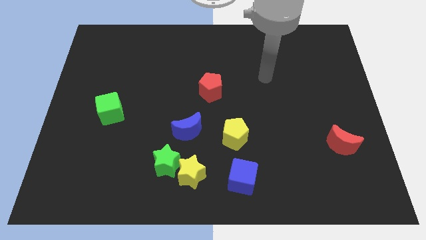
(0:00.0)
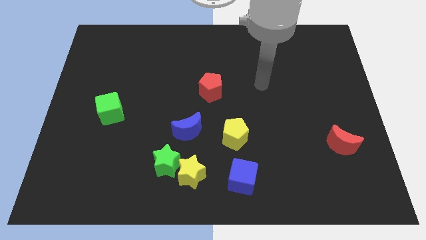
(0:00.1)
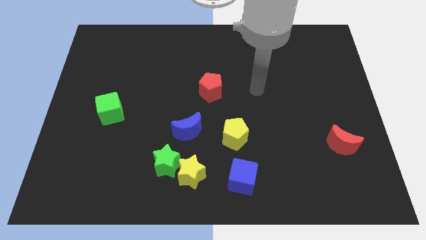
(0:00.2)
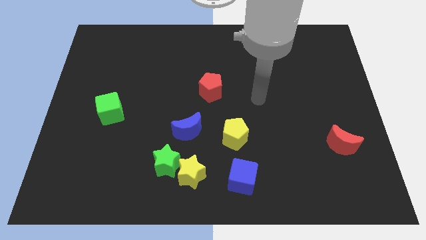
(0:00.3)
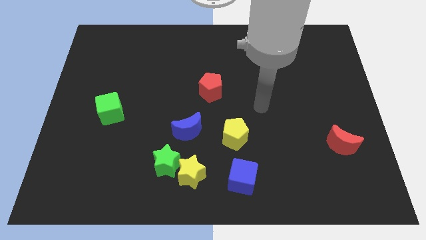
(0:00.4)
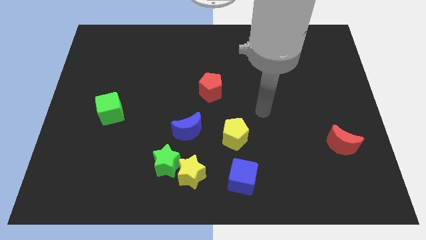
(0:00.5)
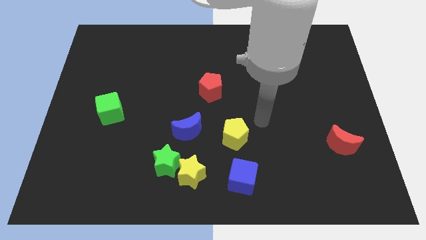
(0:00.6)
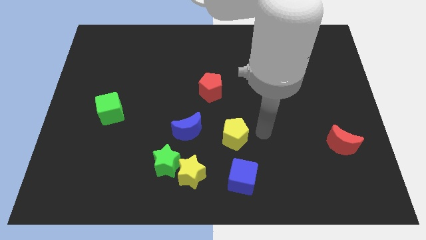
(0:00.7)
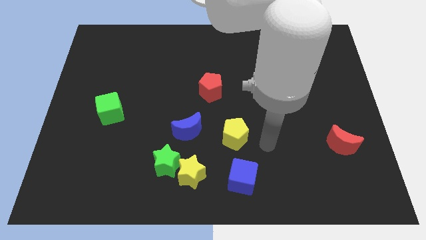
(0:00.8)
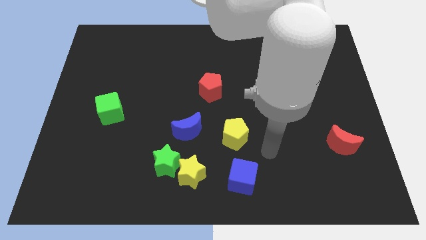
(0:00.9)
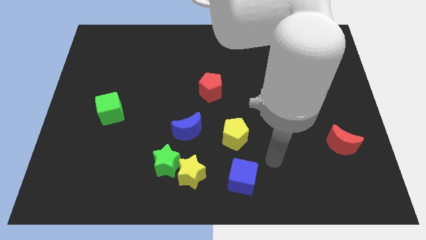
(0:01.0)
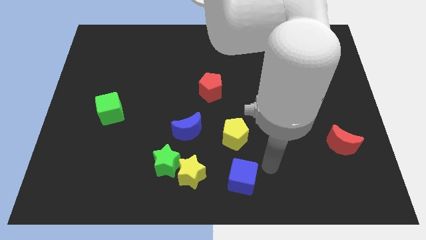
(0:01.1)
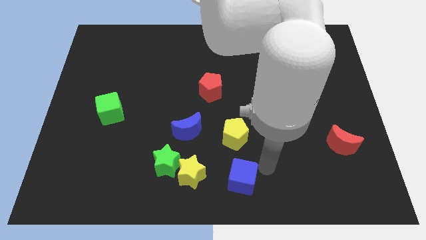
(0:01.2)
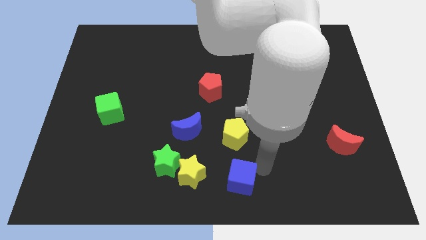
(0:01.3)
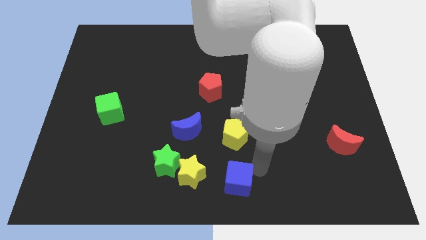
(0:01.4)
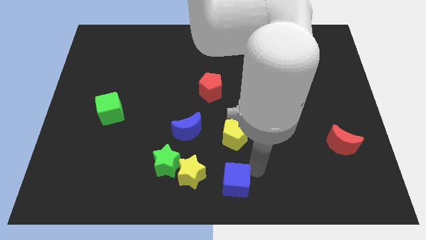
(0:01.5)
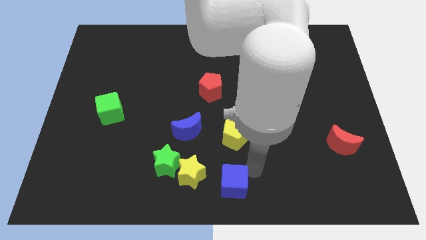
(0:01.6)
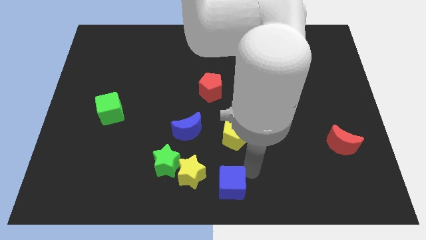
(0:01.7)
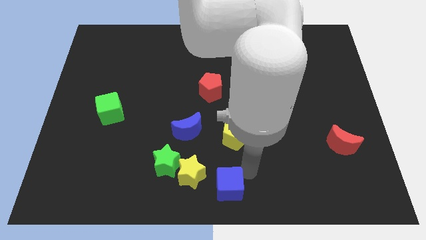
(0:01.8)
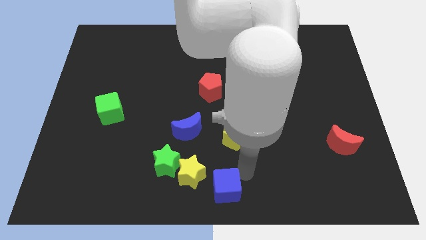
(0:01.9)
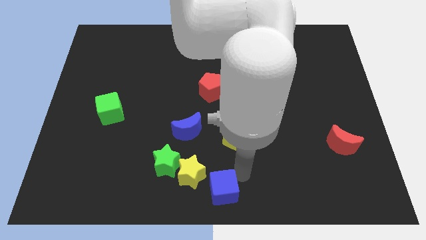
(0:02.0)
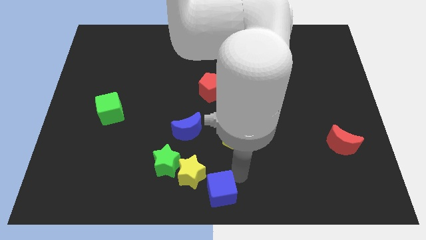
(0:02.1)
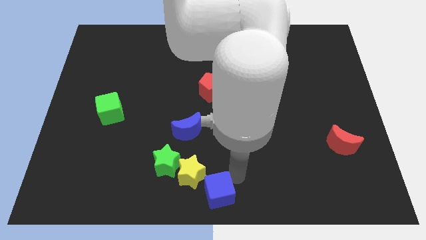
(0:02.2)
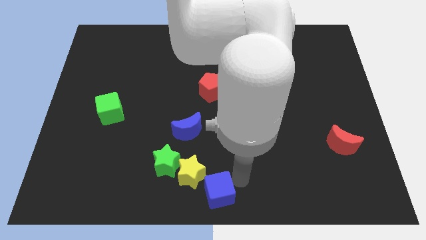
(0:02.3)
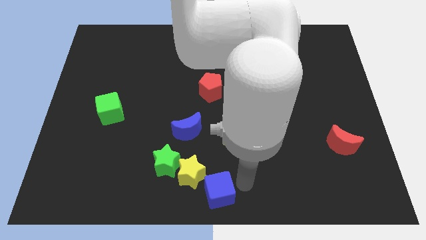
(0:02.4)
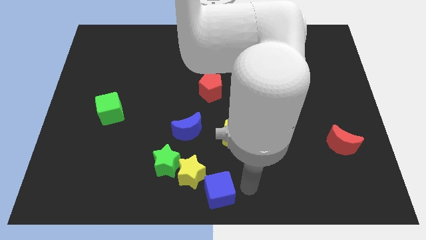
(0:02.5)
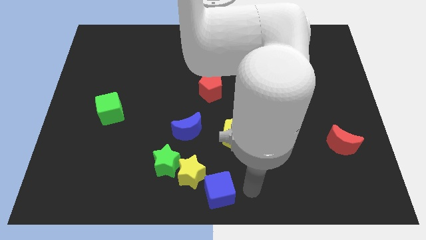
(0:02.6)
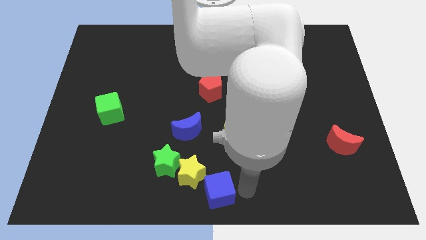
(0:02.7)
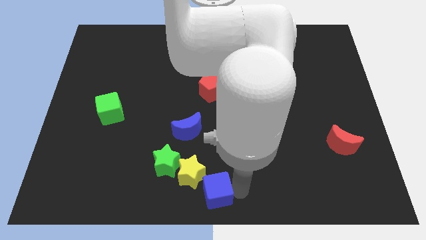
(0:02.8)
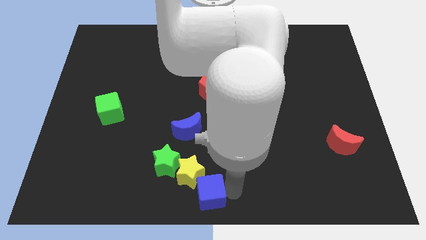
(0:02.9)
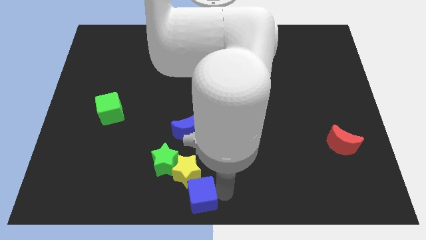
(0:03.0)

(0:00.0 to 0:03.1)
move the blue cube left somewhat

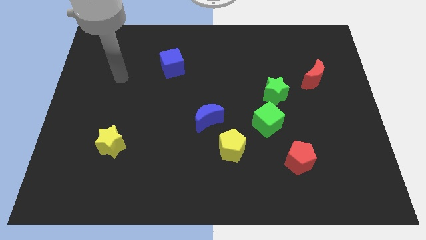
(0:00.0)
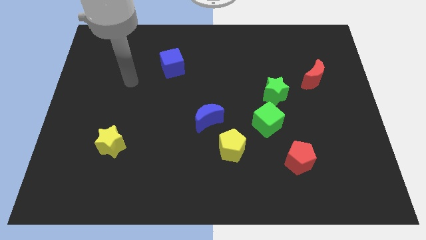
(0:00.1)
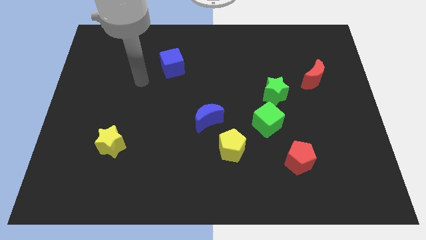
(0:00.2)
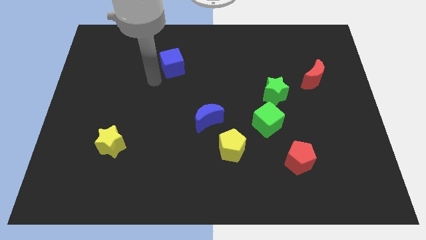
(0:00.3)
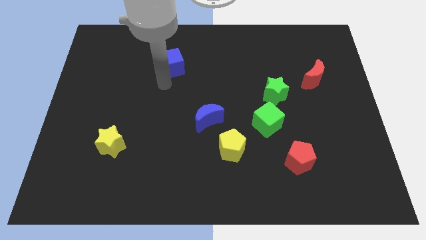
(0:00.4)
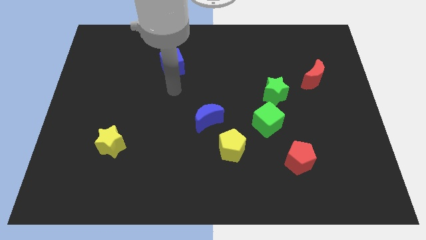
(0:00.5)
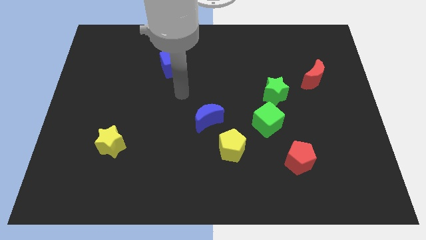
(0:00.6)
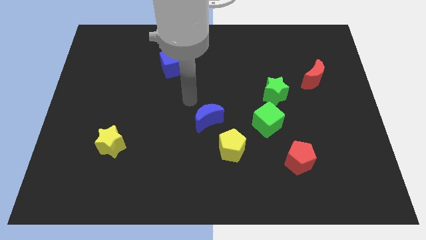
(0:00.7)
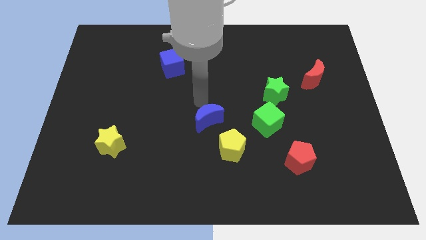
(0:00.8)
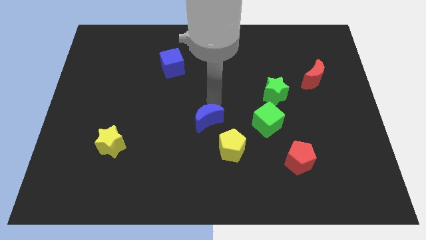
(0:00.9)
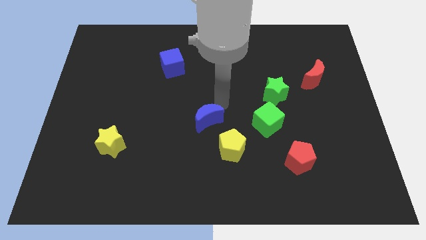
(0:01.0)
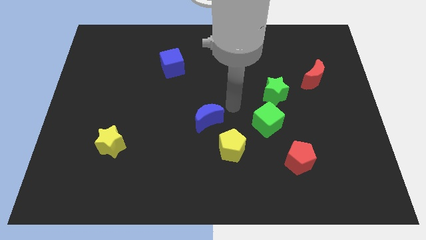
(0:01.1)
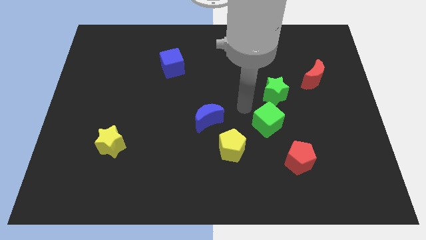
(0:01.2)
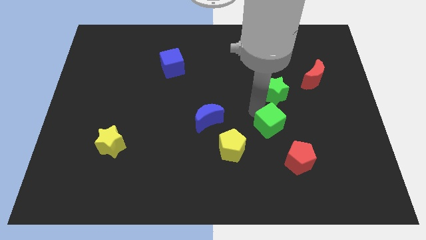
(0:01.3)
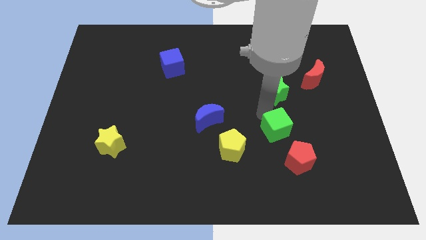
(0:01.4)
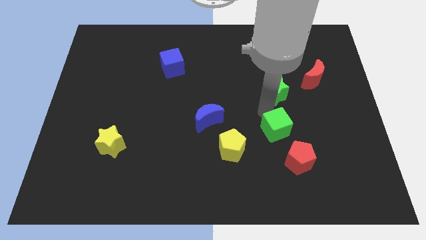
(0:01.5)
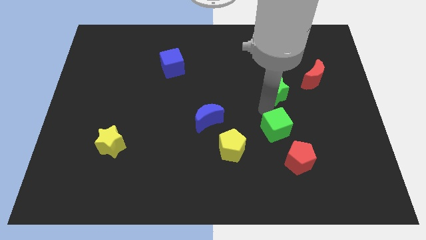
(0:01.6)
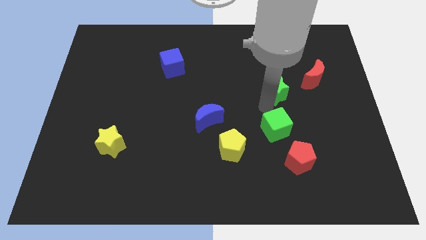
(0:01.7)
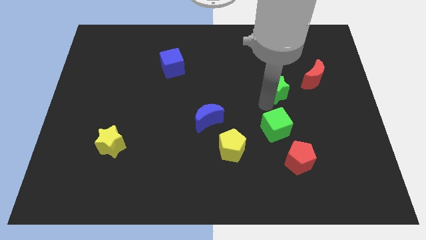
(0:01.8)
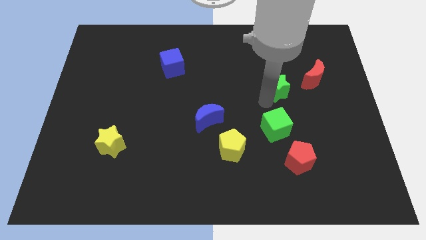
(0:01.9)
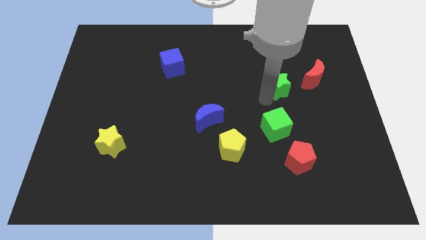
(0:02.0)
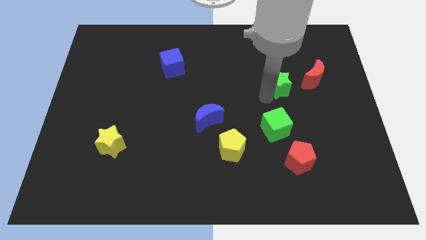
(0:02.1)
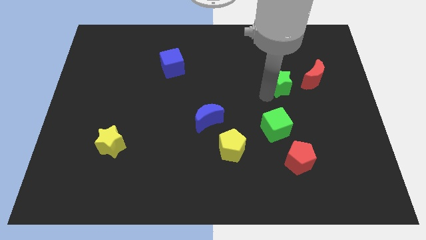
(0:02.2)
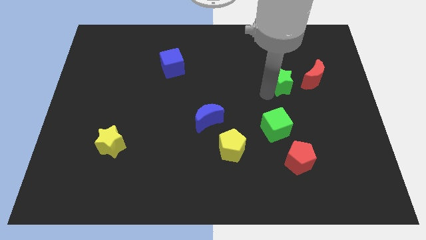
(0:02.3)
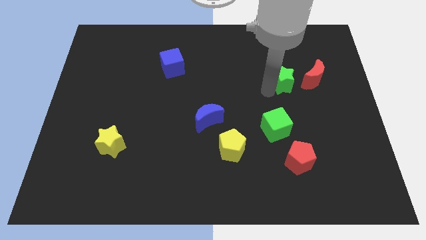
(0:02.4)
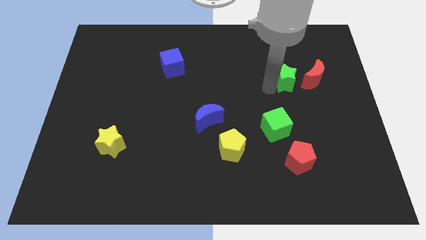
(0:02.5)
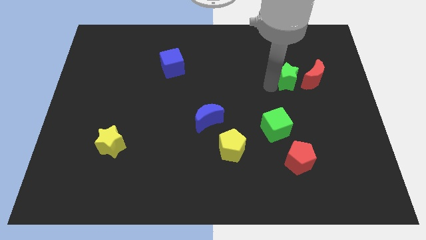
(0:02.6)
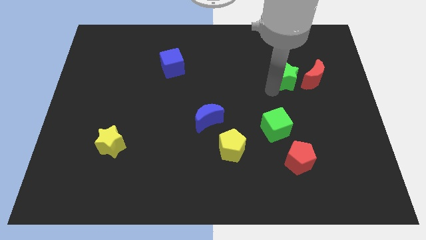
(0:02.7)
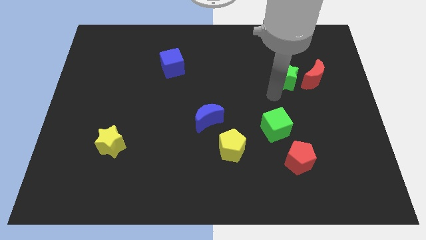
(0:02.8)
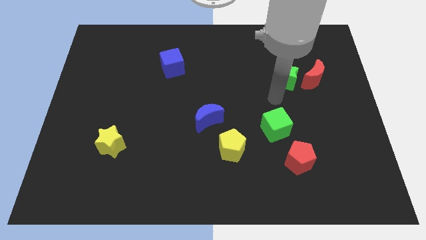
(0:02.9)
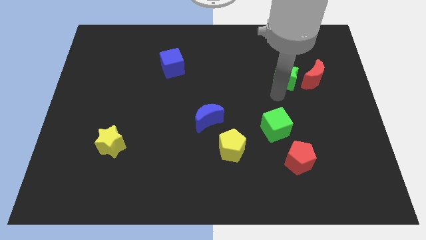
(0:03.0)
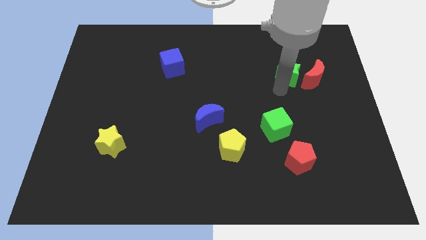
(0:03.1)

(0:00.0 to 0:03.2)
move the green star a bit upwards and then to the right

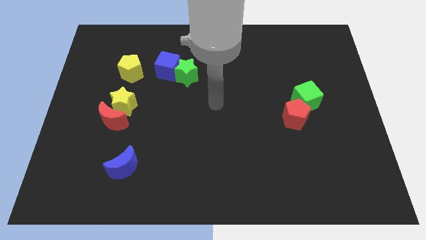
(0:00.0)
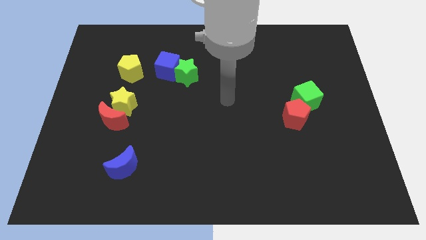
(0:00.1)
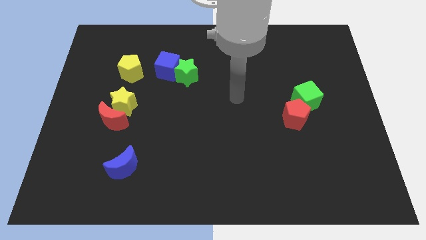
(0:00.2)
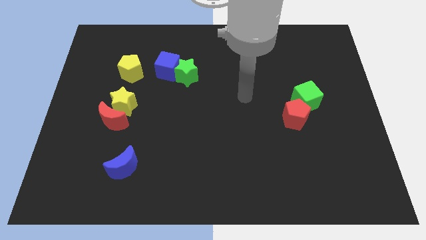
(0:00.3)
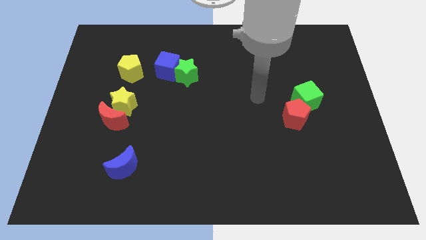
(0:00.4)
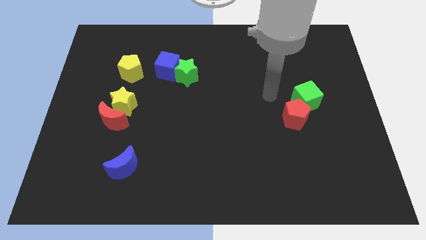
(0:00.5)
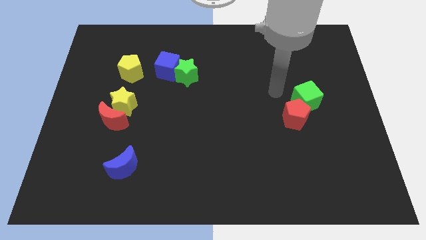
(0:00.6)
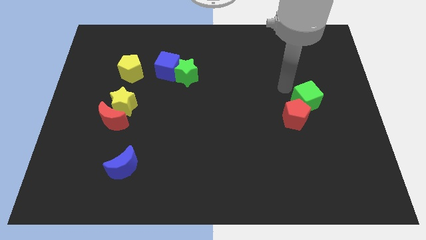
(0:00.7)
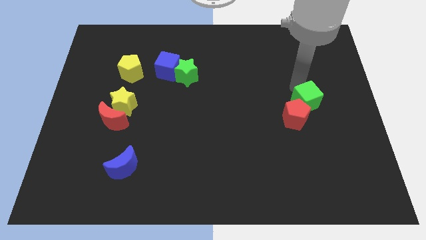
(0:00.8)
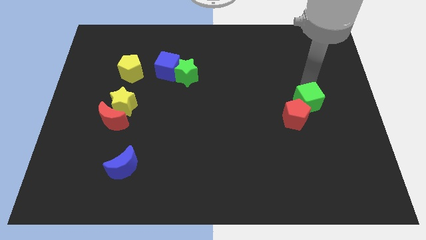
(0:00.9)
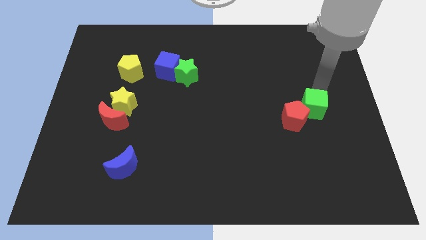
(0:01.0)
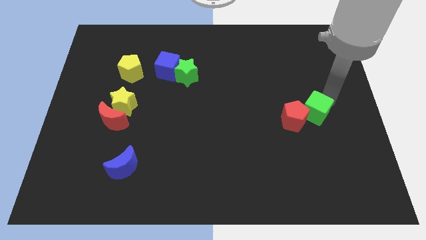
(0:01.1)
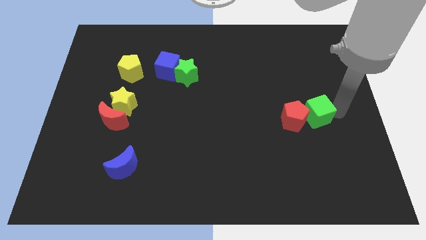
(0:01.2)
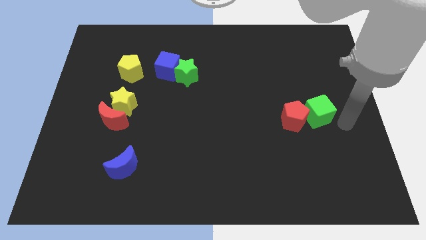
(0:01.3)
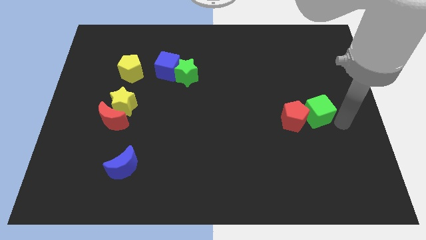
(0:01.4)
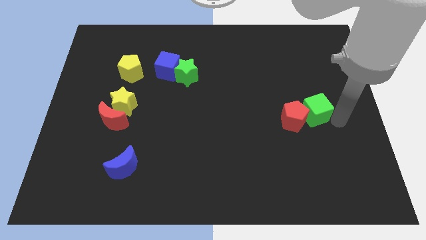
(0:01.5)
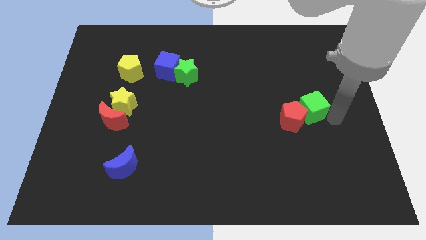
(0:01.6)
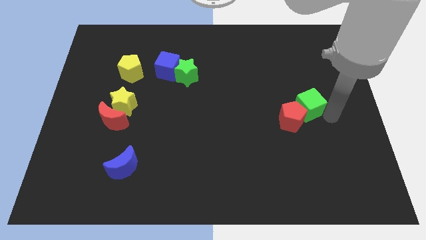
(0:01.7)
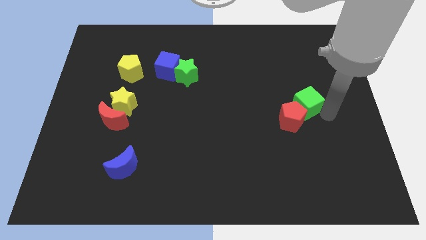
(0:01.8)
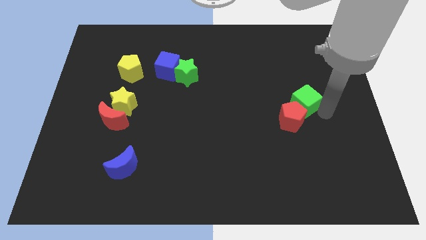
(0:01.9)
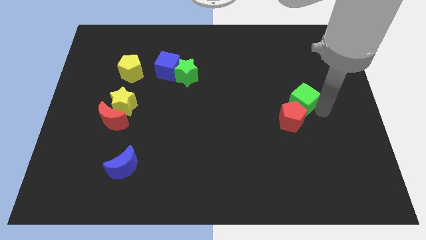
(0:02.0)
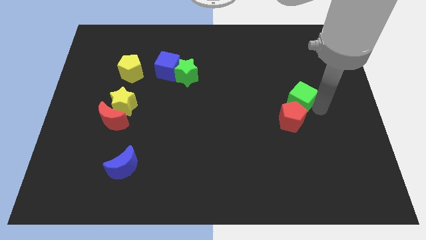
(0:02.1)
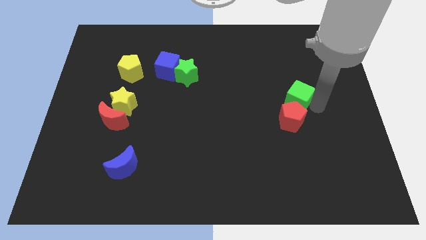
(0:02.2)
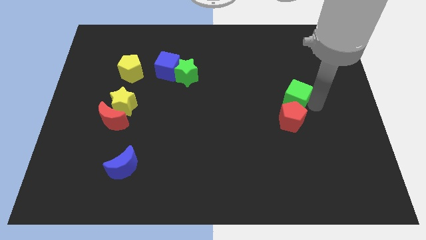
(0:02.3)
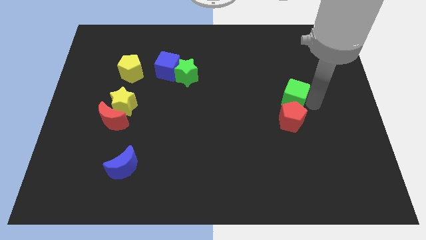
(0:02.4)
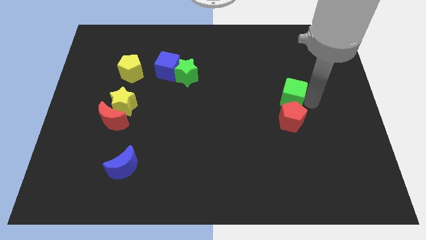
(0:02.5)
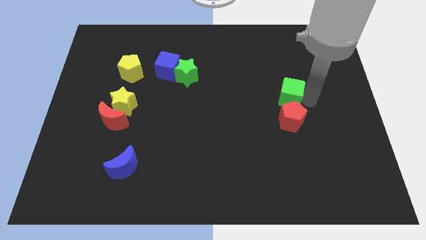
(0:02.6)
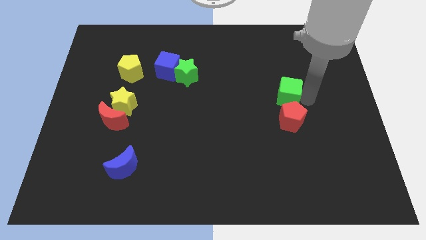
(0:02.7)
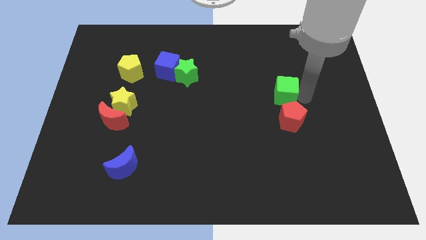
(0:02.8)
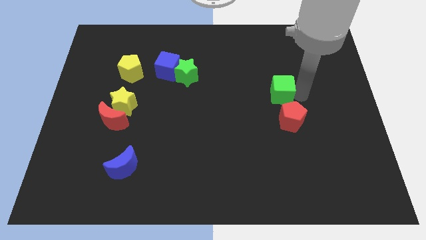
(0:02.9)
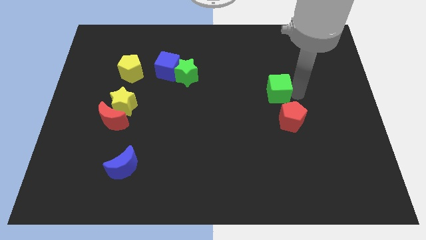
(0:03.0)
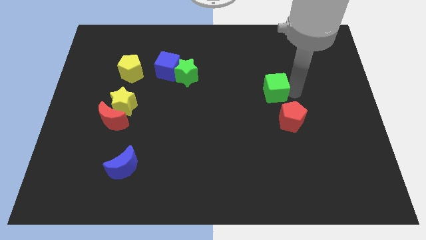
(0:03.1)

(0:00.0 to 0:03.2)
push the green cube somewhat to the left
